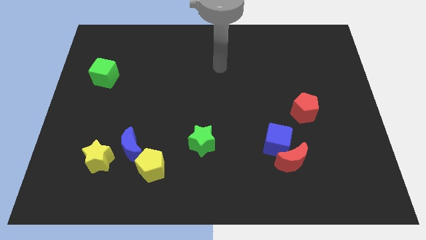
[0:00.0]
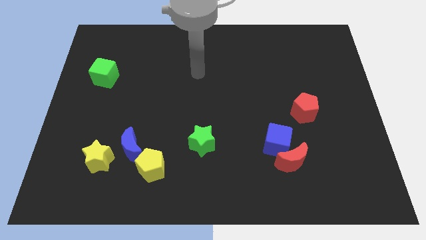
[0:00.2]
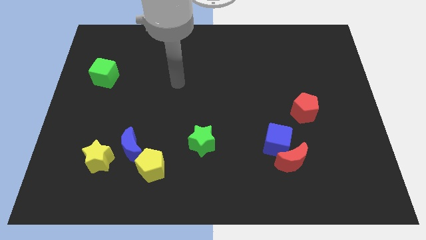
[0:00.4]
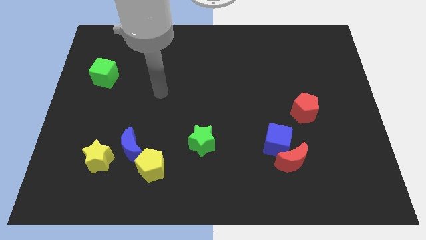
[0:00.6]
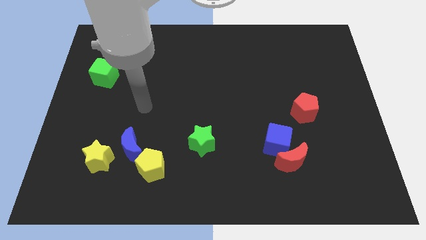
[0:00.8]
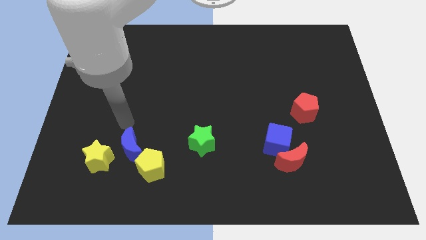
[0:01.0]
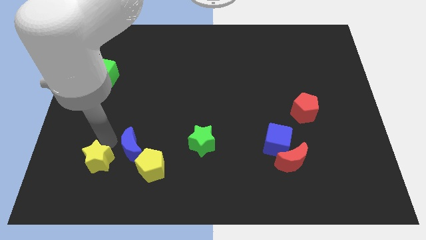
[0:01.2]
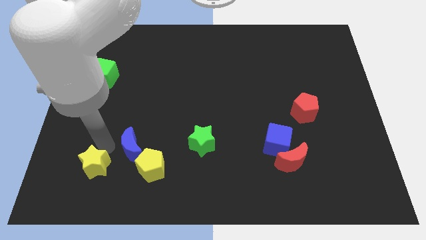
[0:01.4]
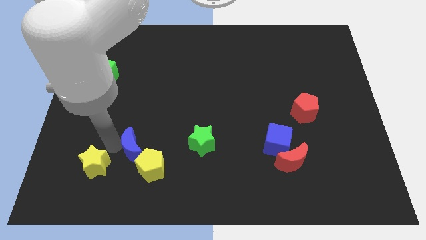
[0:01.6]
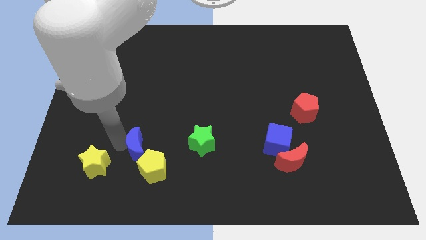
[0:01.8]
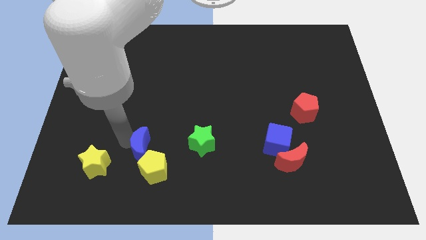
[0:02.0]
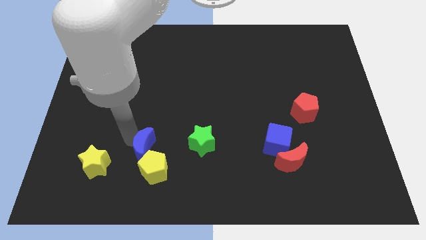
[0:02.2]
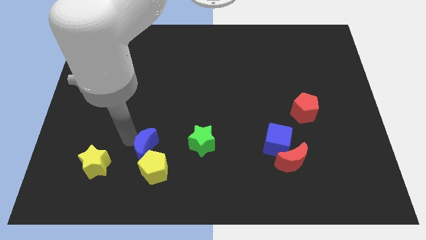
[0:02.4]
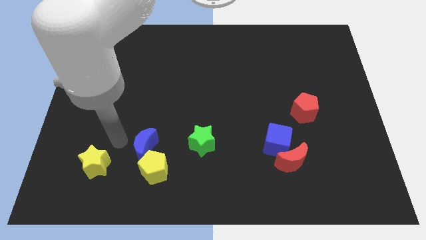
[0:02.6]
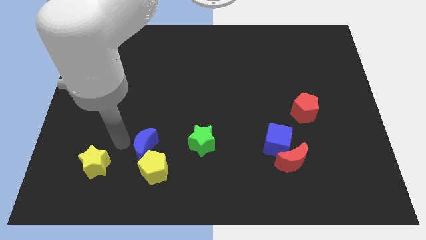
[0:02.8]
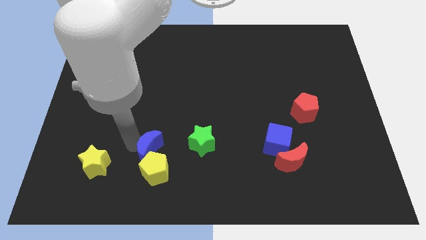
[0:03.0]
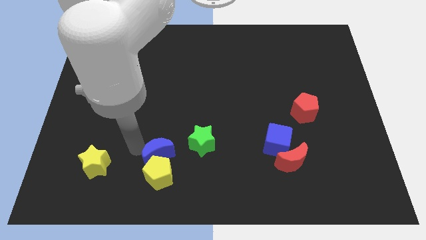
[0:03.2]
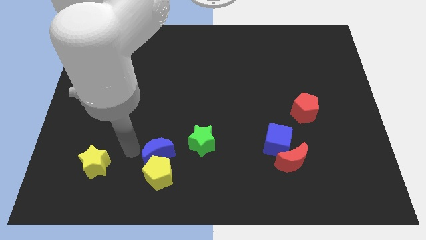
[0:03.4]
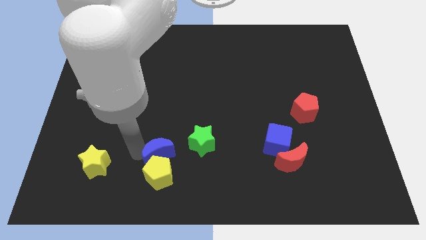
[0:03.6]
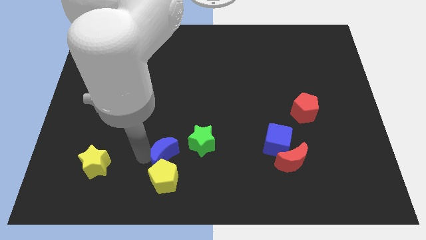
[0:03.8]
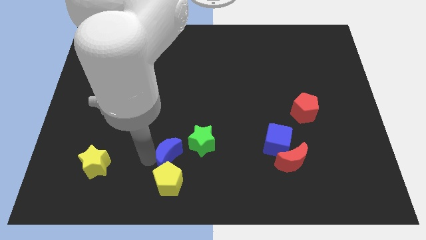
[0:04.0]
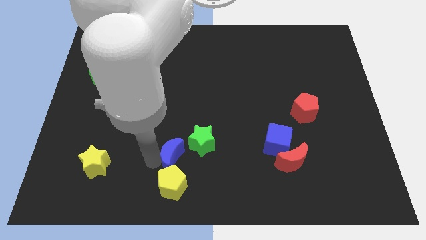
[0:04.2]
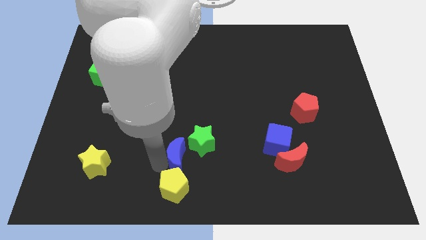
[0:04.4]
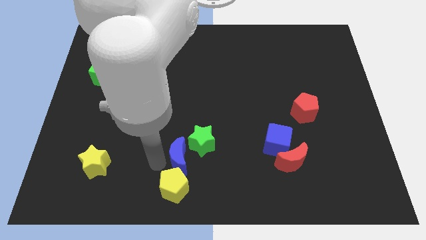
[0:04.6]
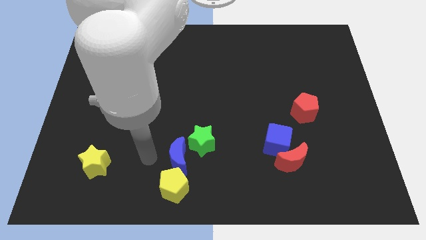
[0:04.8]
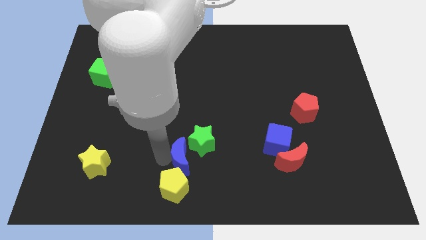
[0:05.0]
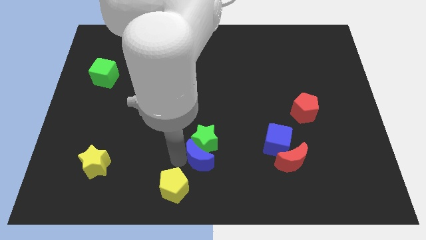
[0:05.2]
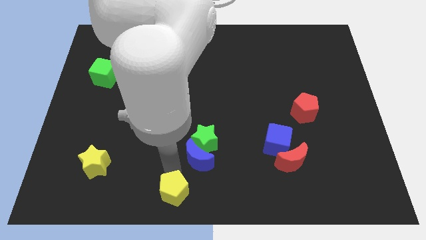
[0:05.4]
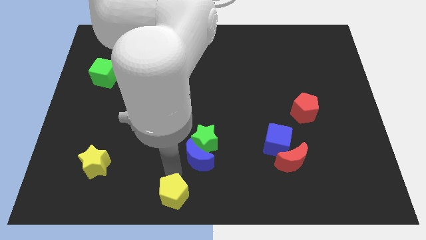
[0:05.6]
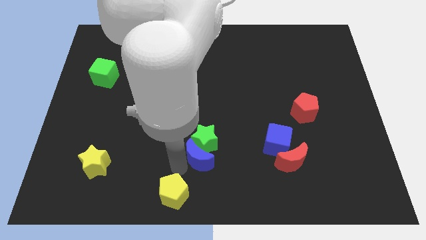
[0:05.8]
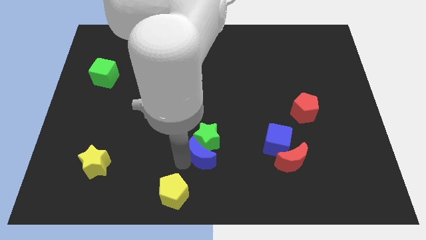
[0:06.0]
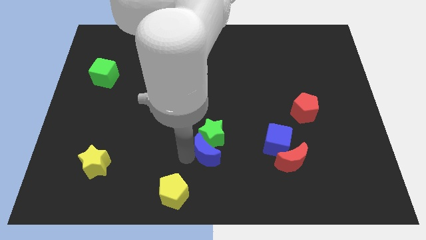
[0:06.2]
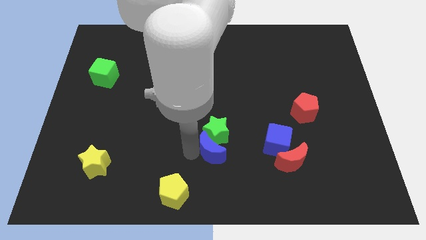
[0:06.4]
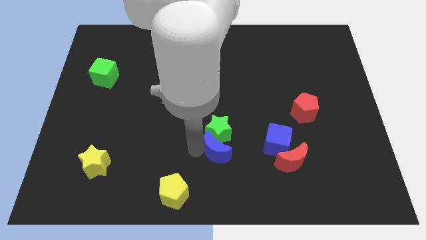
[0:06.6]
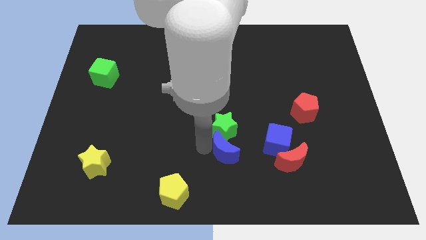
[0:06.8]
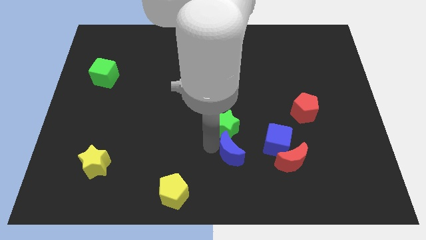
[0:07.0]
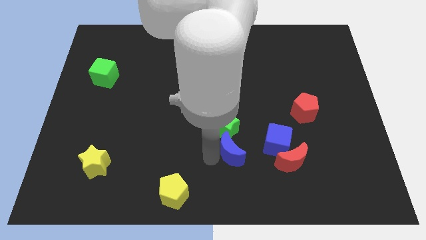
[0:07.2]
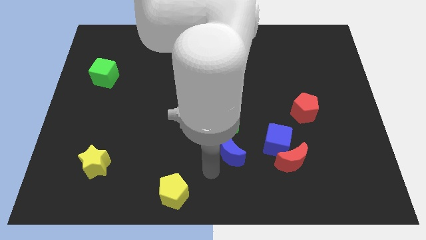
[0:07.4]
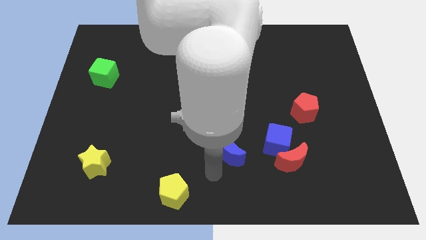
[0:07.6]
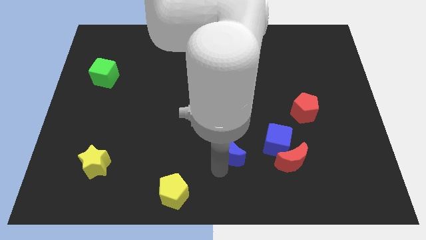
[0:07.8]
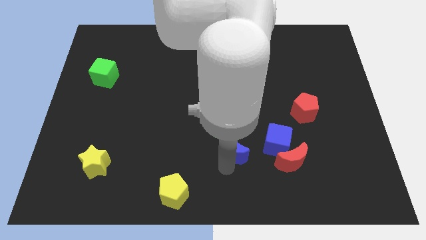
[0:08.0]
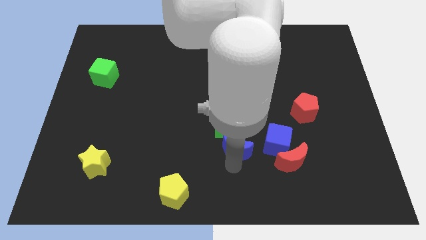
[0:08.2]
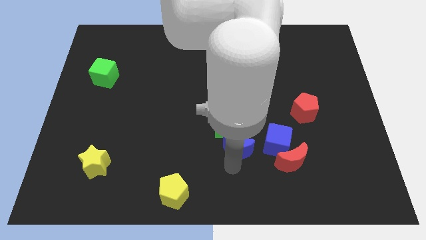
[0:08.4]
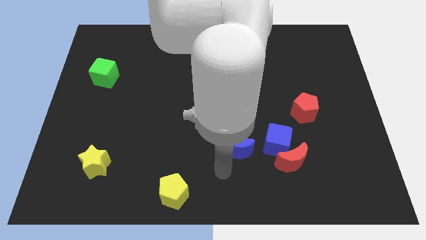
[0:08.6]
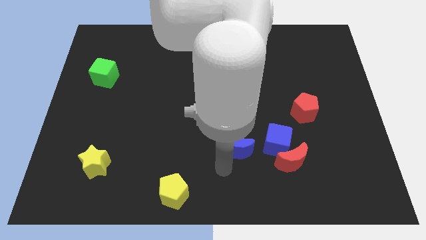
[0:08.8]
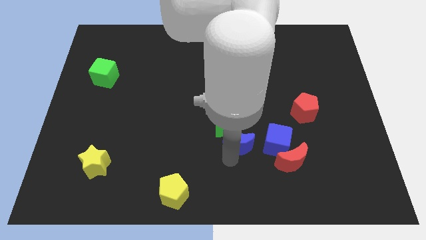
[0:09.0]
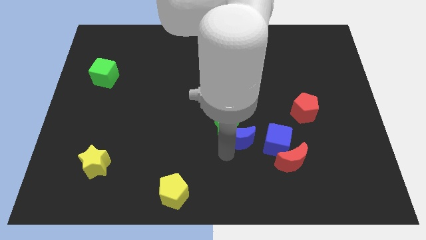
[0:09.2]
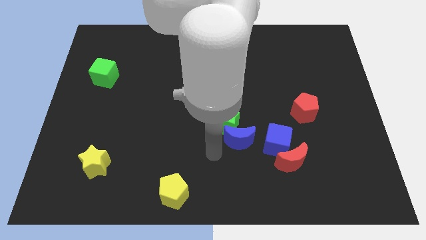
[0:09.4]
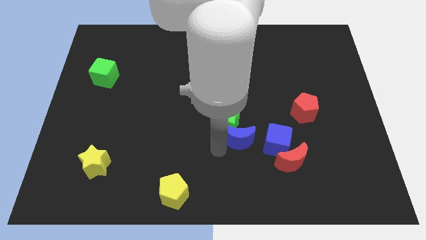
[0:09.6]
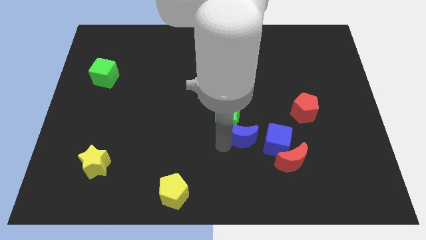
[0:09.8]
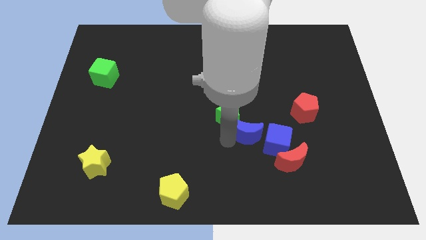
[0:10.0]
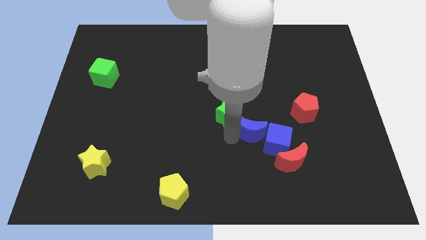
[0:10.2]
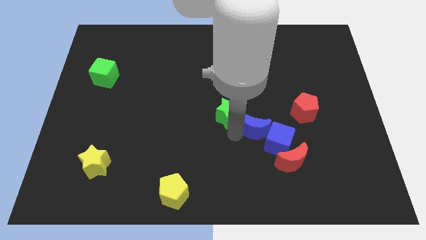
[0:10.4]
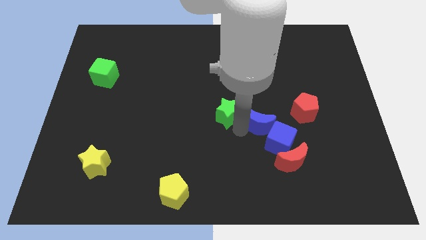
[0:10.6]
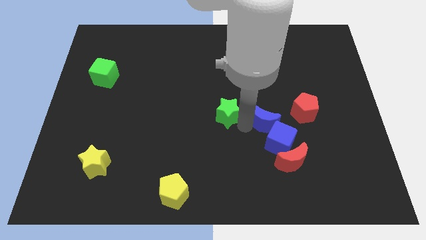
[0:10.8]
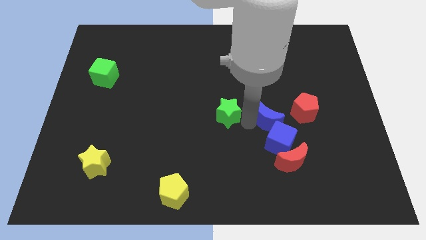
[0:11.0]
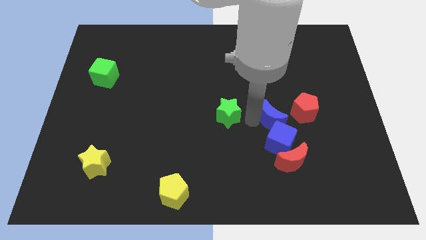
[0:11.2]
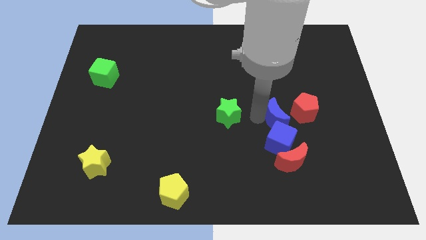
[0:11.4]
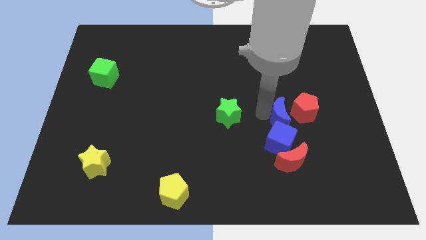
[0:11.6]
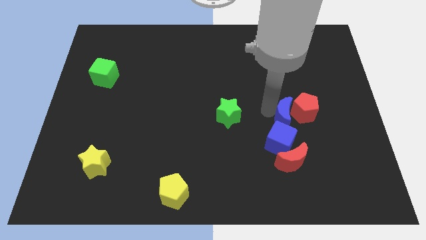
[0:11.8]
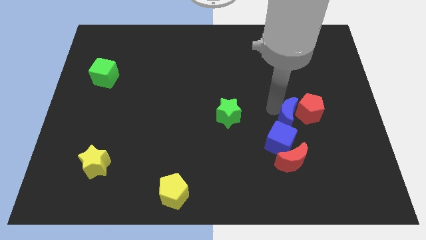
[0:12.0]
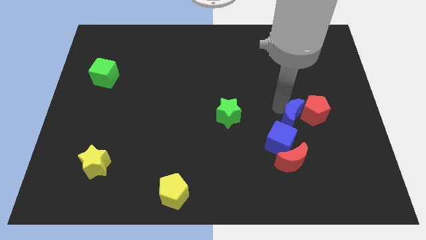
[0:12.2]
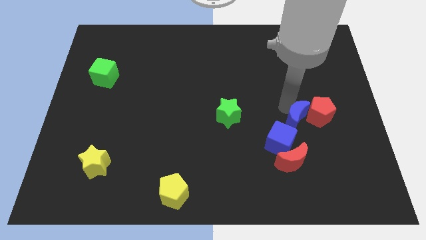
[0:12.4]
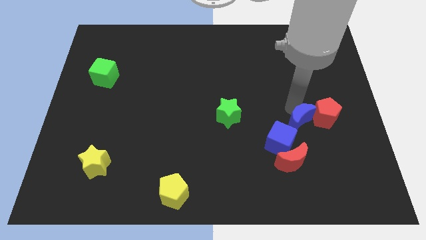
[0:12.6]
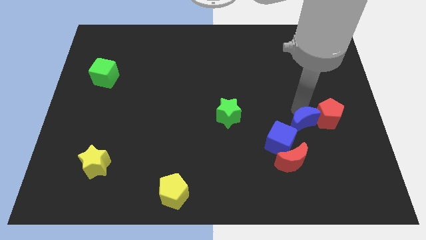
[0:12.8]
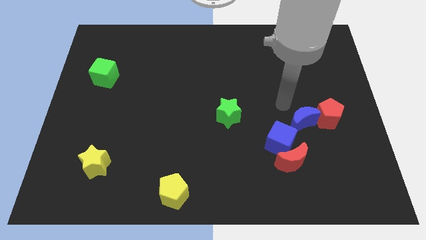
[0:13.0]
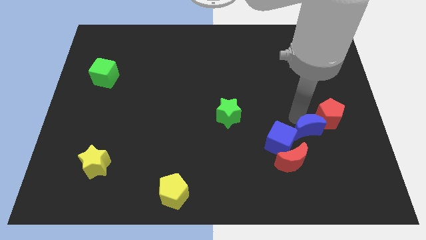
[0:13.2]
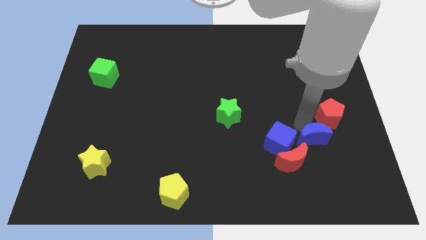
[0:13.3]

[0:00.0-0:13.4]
slide the blue moon to the bottom side of the red pentagon

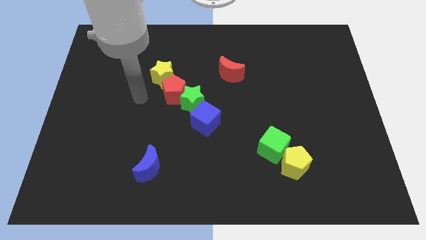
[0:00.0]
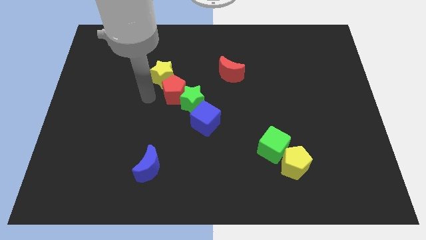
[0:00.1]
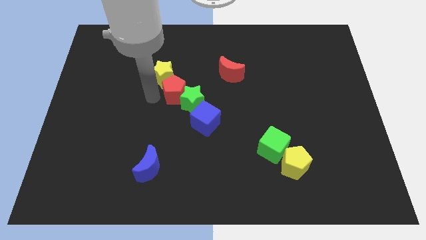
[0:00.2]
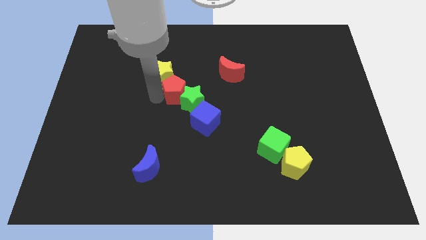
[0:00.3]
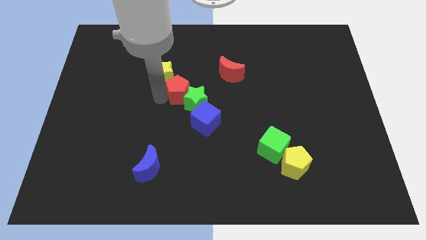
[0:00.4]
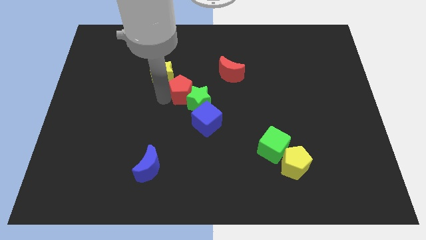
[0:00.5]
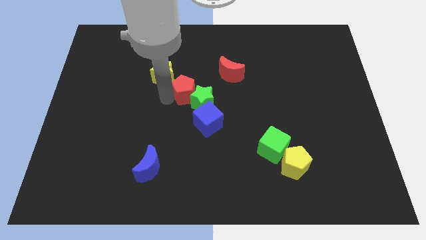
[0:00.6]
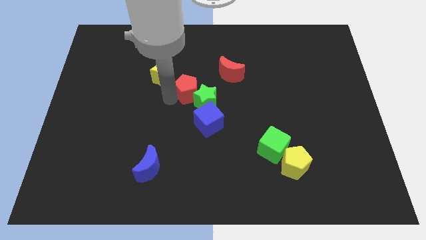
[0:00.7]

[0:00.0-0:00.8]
move the red pentagon diagonally down and to the left of the red moon
